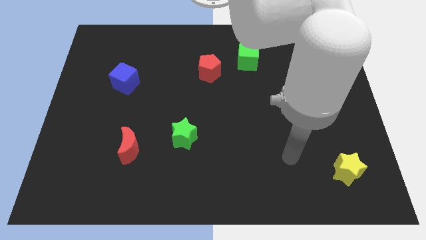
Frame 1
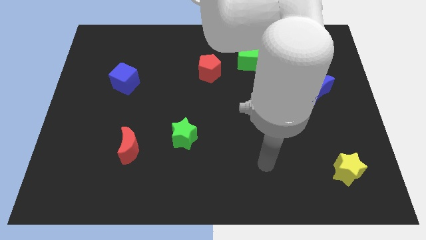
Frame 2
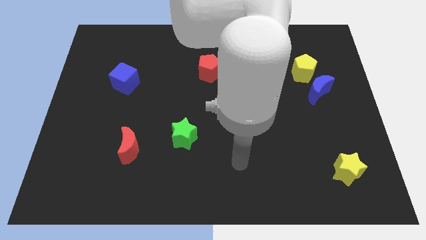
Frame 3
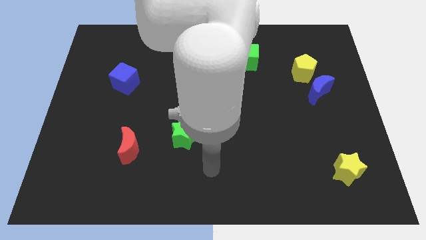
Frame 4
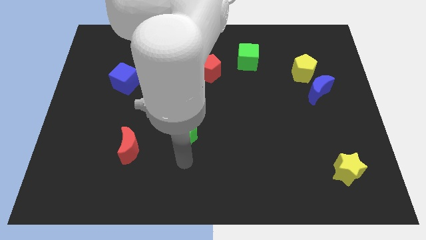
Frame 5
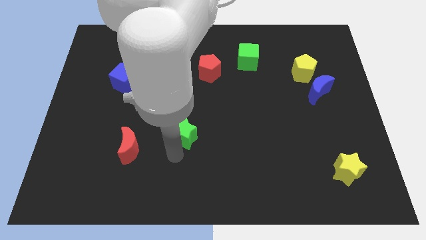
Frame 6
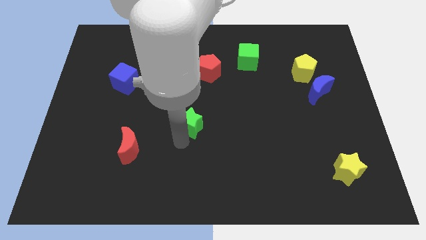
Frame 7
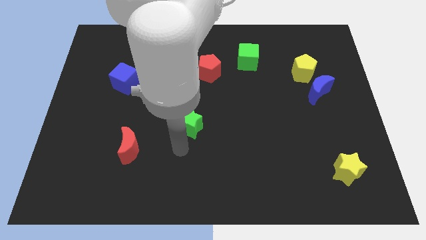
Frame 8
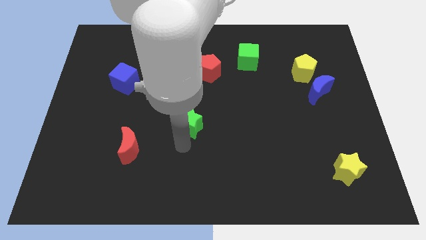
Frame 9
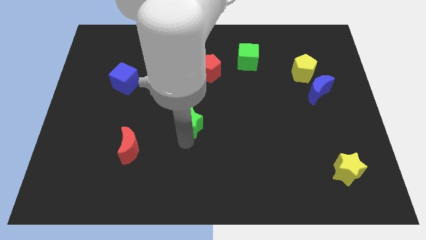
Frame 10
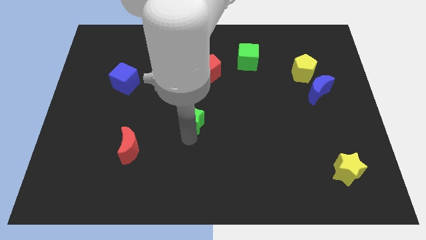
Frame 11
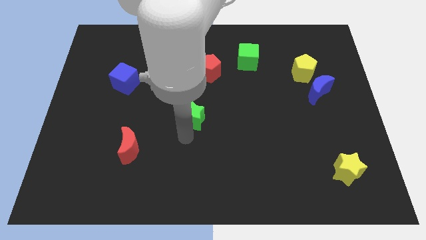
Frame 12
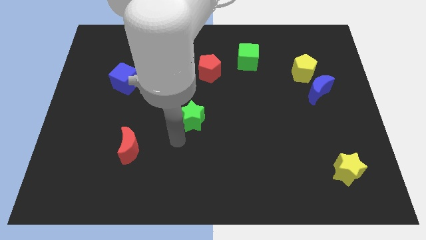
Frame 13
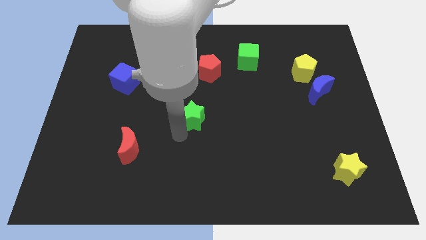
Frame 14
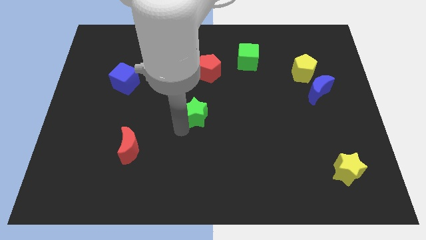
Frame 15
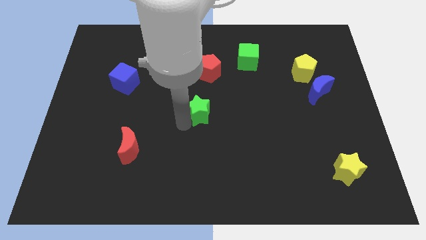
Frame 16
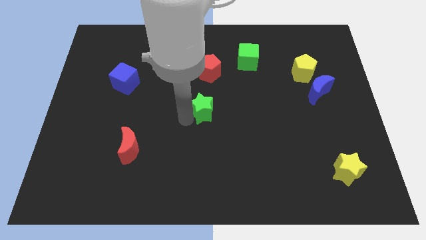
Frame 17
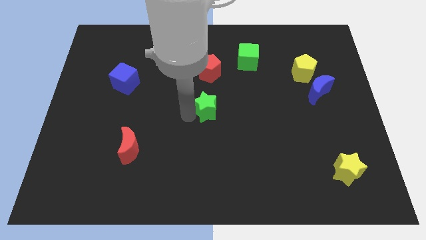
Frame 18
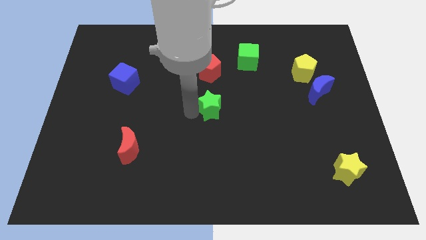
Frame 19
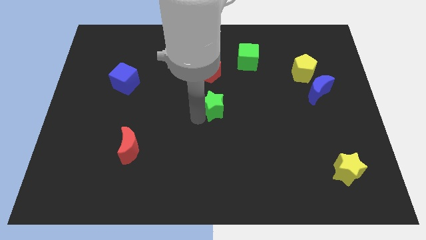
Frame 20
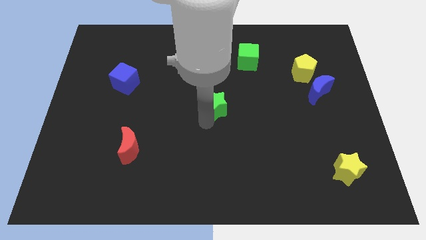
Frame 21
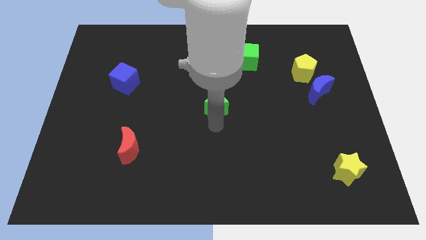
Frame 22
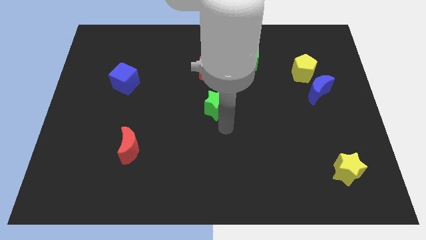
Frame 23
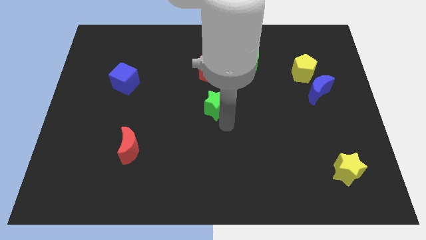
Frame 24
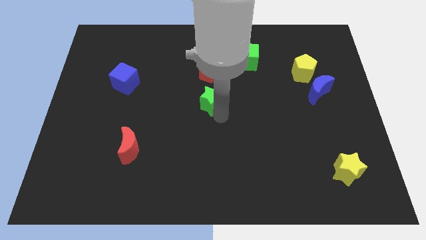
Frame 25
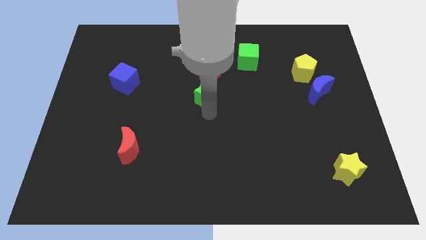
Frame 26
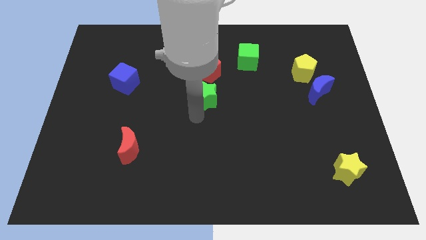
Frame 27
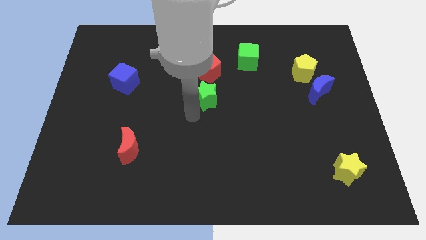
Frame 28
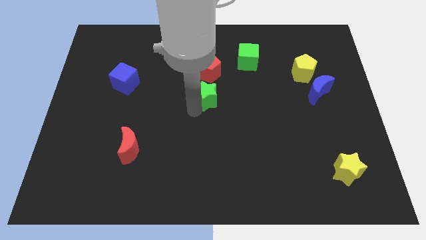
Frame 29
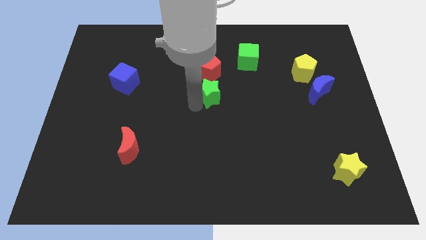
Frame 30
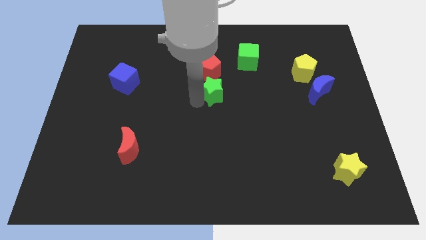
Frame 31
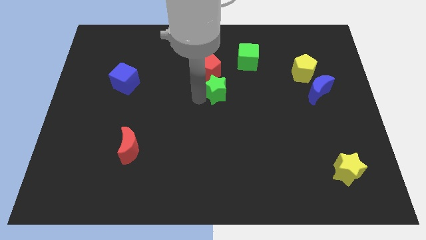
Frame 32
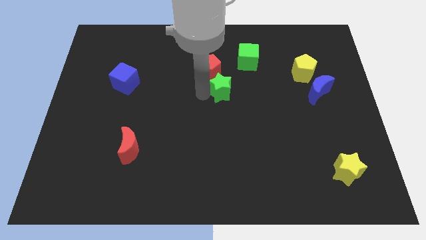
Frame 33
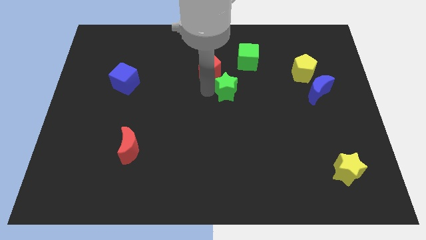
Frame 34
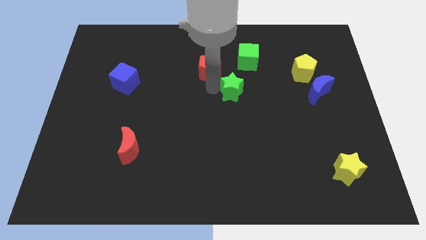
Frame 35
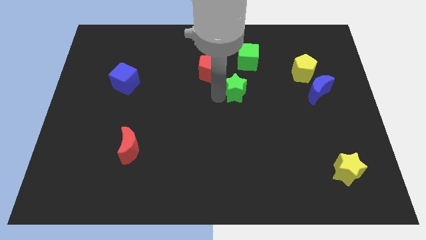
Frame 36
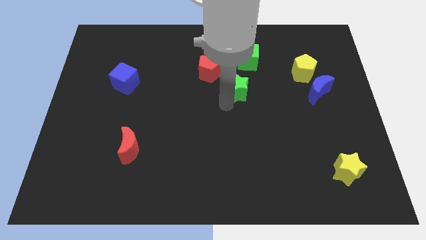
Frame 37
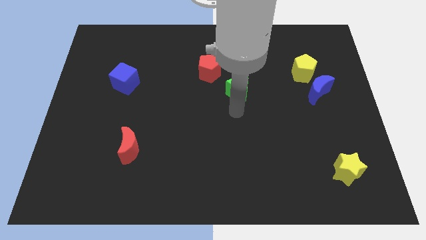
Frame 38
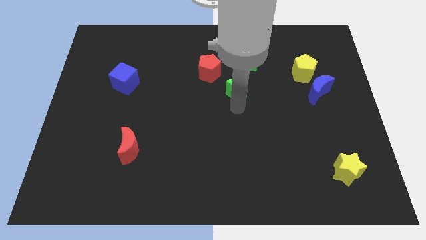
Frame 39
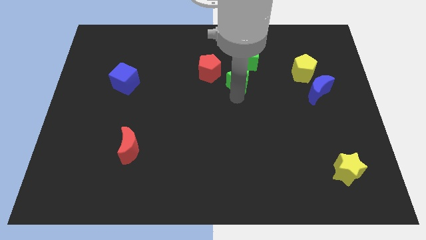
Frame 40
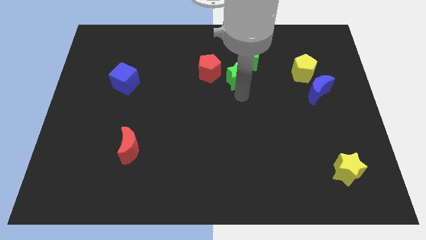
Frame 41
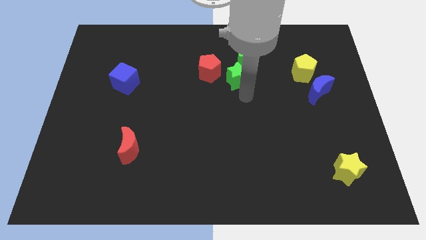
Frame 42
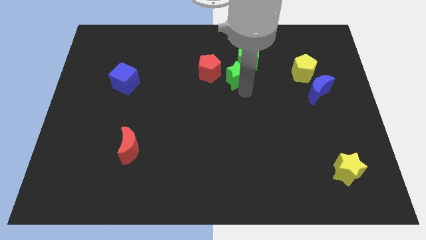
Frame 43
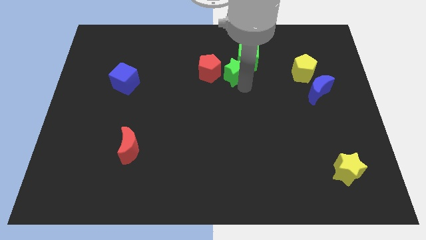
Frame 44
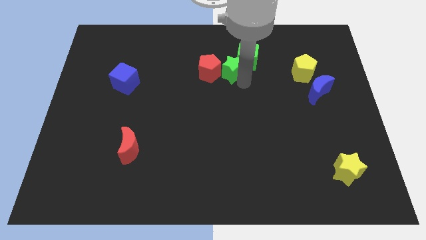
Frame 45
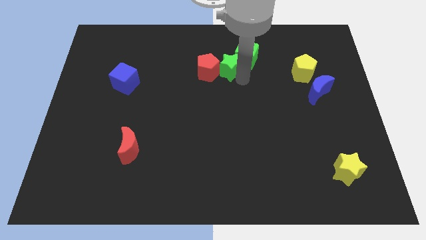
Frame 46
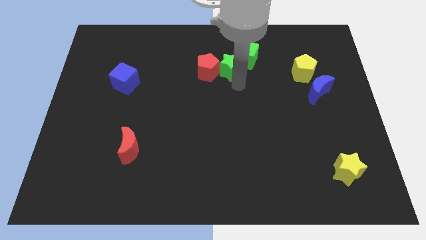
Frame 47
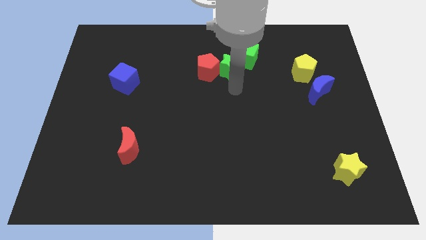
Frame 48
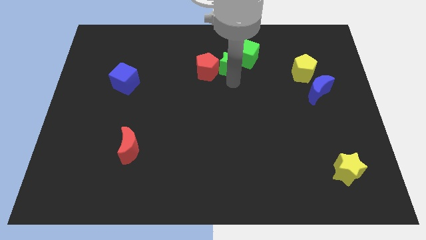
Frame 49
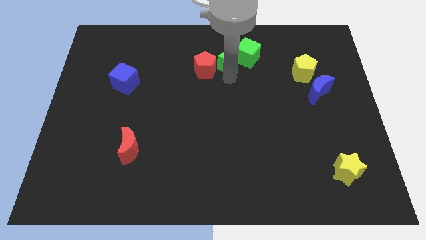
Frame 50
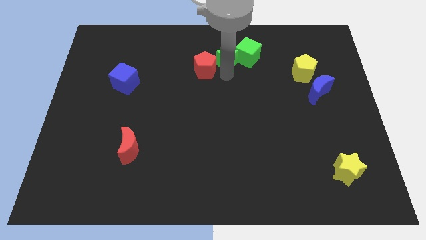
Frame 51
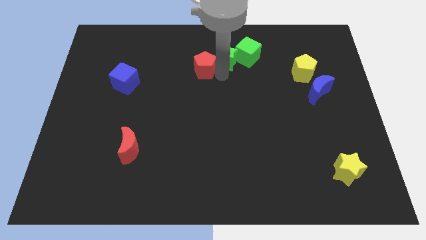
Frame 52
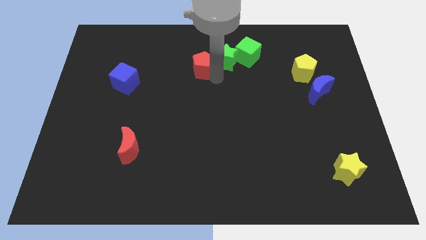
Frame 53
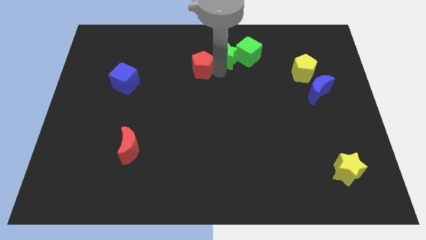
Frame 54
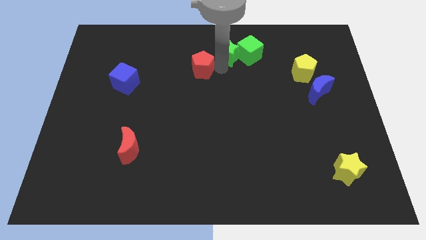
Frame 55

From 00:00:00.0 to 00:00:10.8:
slide the green star to the top

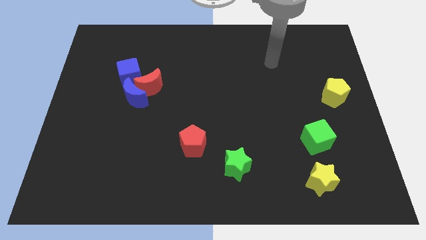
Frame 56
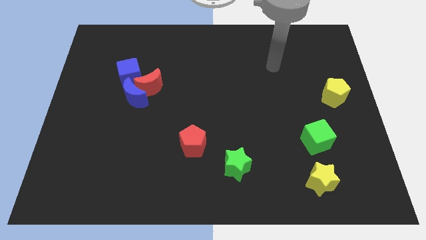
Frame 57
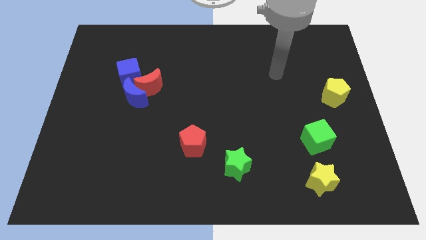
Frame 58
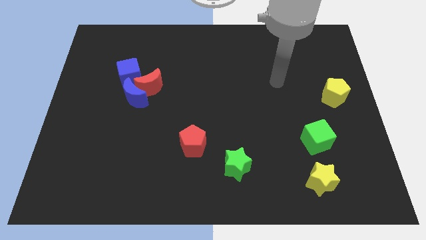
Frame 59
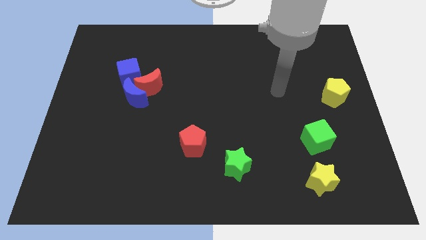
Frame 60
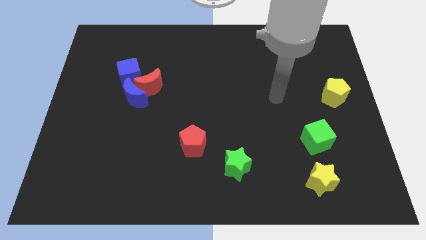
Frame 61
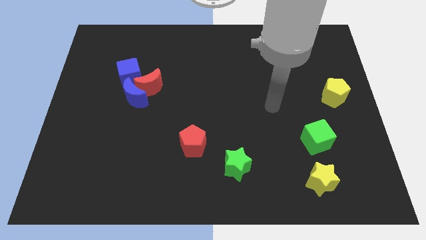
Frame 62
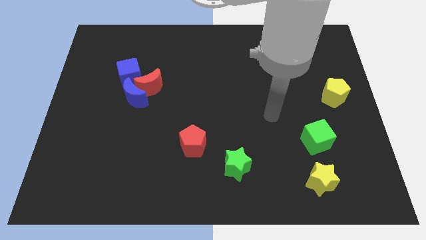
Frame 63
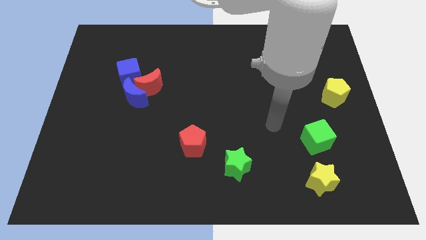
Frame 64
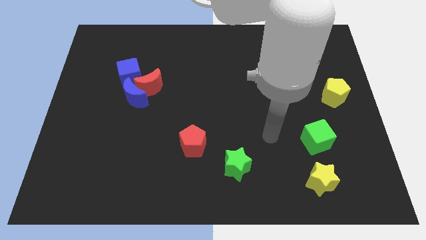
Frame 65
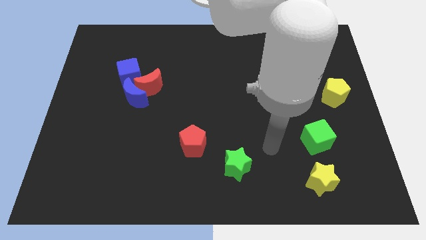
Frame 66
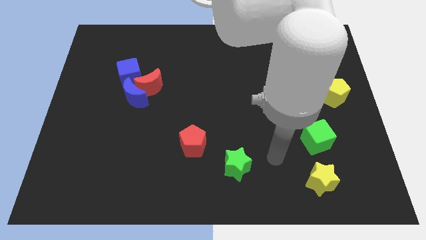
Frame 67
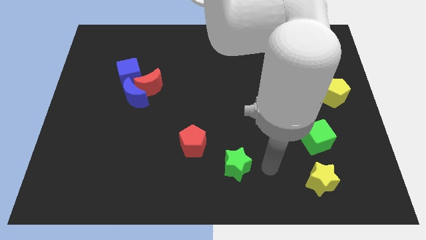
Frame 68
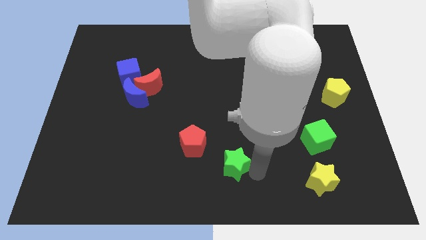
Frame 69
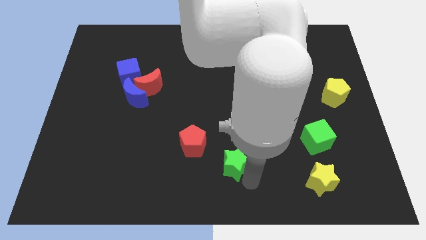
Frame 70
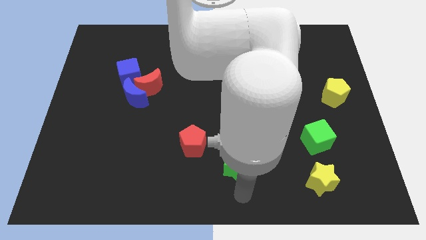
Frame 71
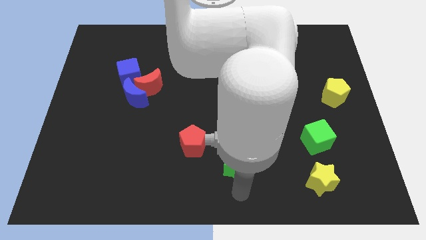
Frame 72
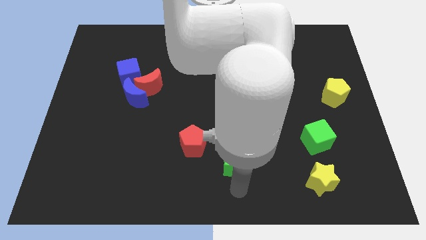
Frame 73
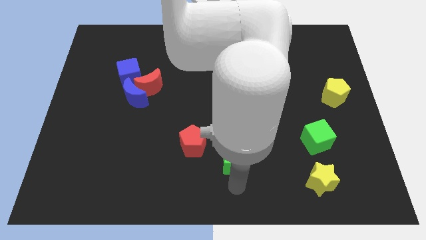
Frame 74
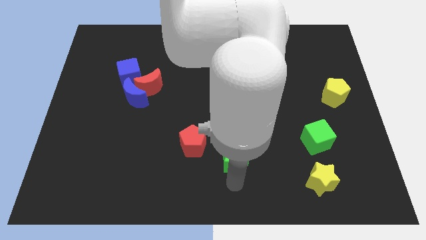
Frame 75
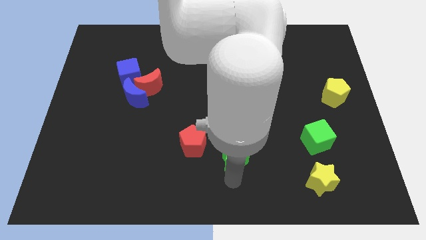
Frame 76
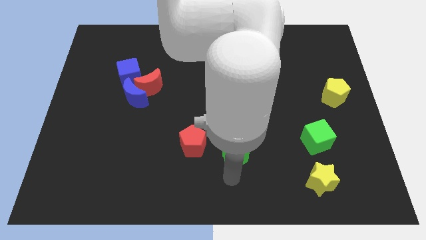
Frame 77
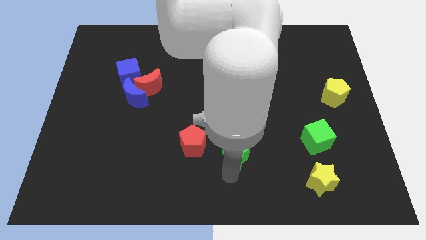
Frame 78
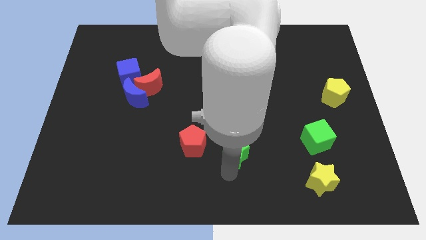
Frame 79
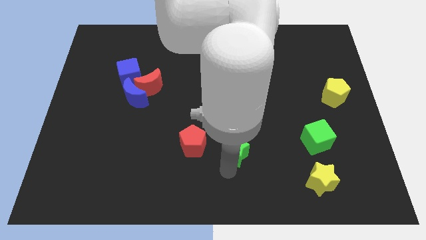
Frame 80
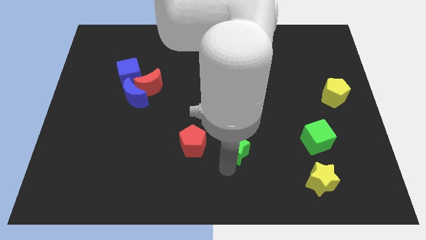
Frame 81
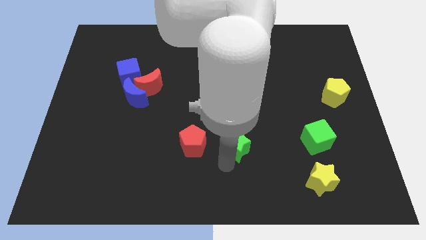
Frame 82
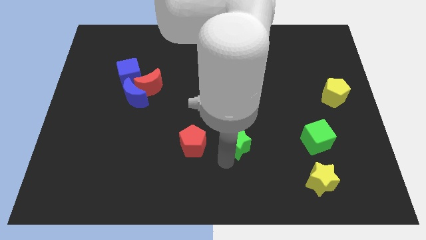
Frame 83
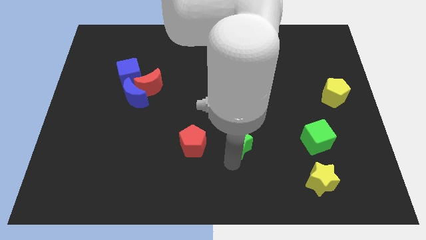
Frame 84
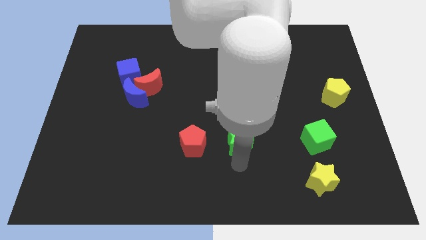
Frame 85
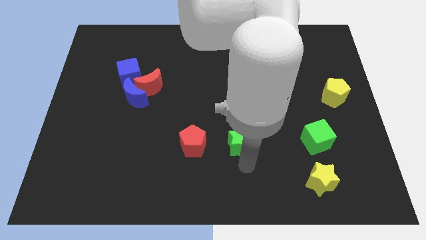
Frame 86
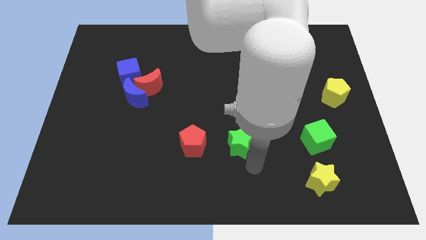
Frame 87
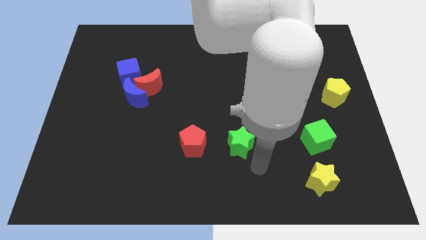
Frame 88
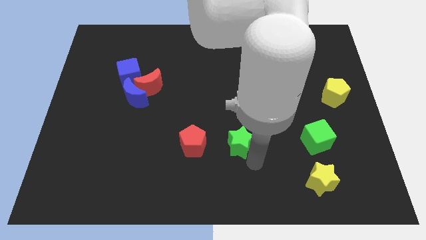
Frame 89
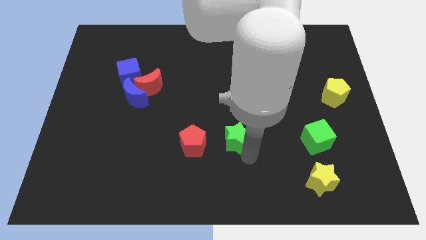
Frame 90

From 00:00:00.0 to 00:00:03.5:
put the green star to the middle of the board
